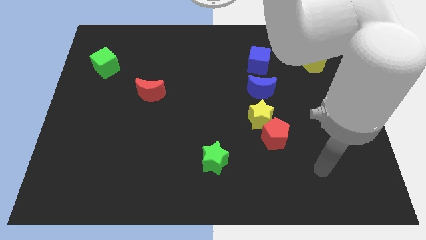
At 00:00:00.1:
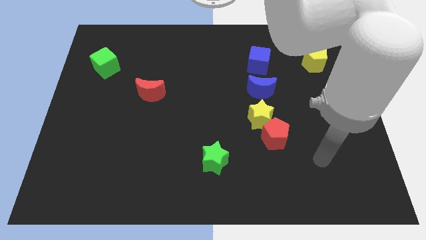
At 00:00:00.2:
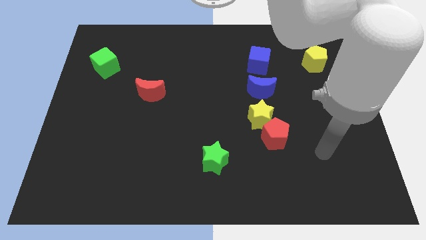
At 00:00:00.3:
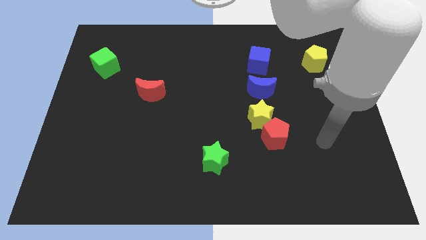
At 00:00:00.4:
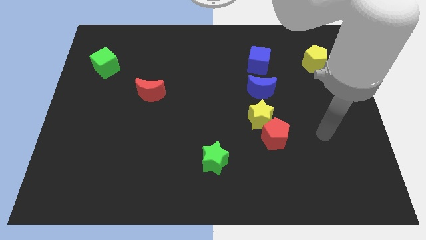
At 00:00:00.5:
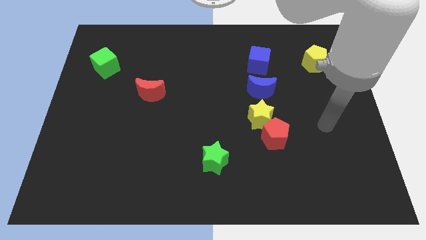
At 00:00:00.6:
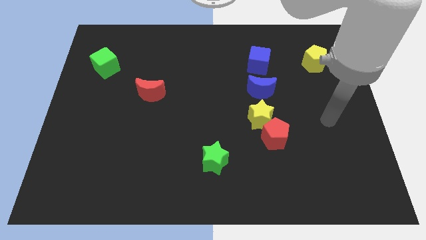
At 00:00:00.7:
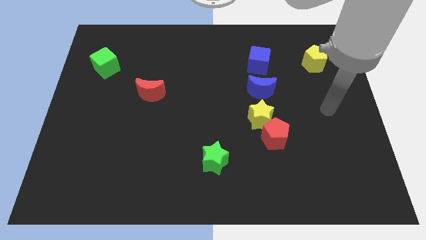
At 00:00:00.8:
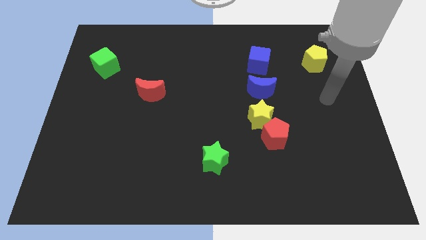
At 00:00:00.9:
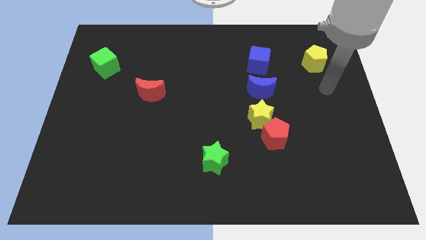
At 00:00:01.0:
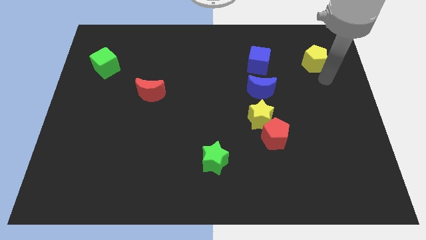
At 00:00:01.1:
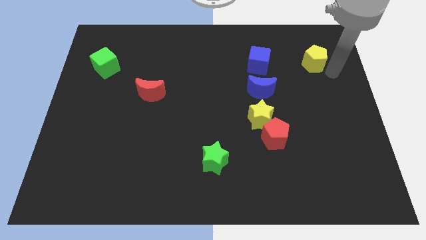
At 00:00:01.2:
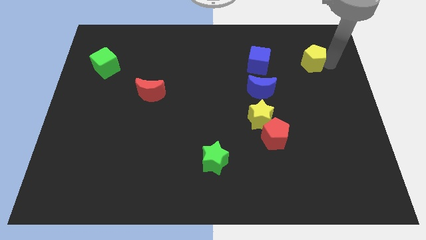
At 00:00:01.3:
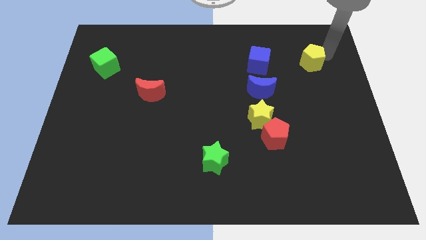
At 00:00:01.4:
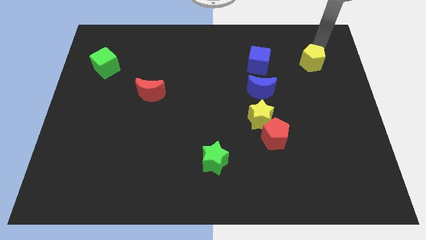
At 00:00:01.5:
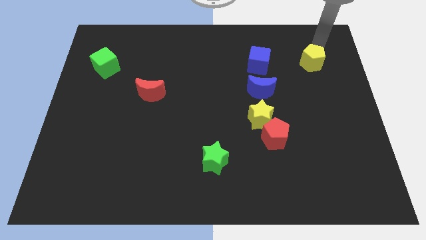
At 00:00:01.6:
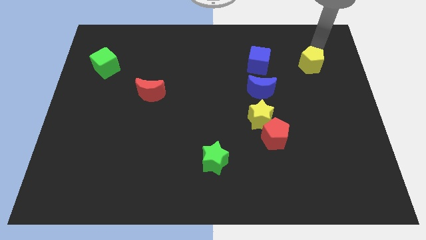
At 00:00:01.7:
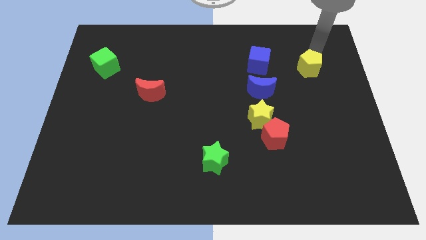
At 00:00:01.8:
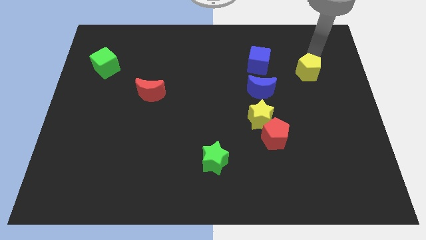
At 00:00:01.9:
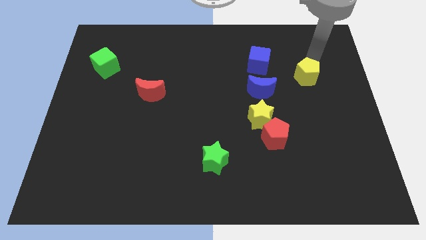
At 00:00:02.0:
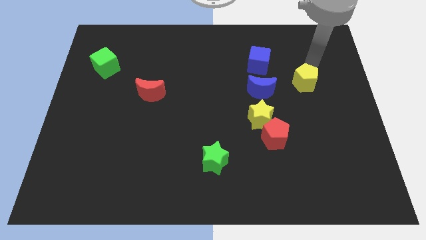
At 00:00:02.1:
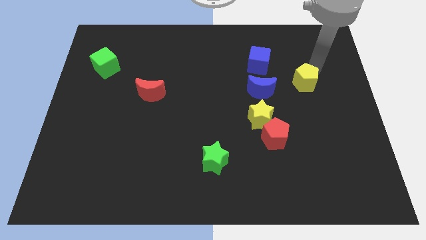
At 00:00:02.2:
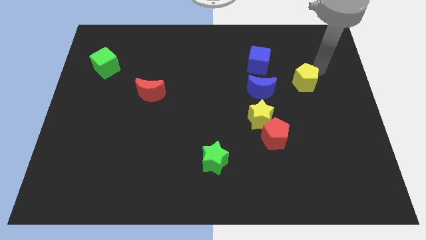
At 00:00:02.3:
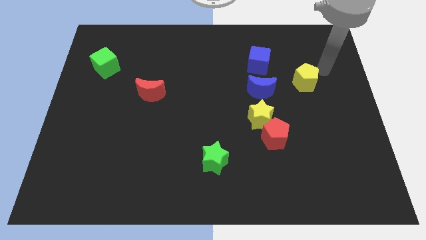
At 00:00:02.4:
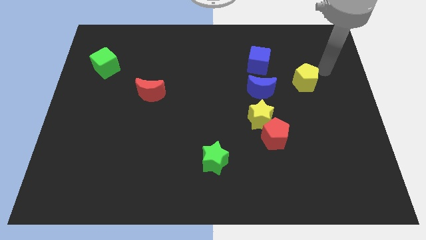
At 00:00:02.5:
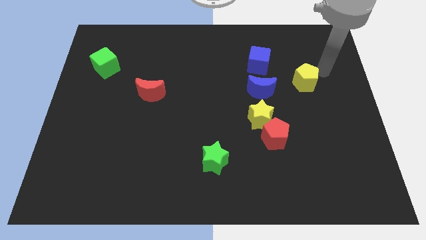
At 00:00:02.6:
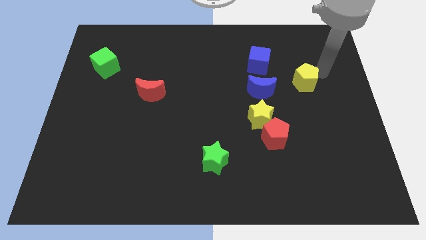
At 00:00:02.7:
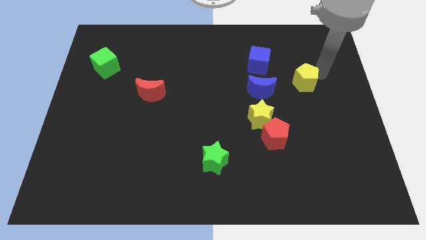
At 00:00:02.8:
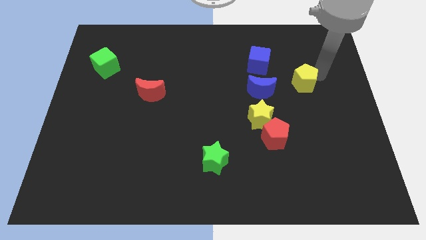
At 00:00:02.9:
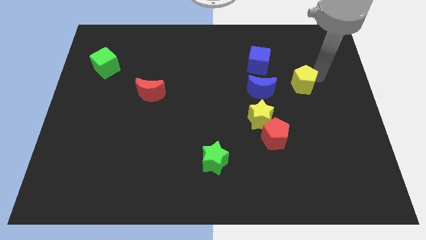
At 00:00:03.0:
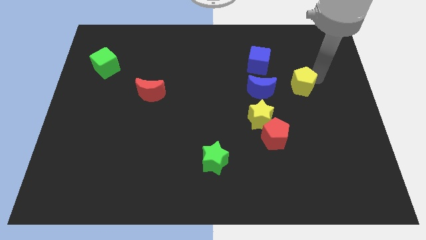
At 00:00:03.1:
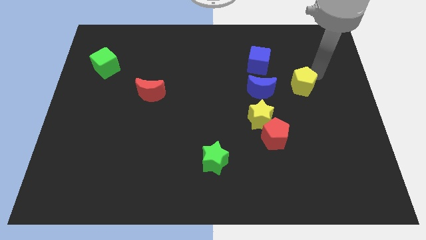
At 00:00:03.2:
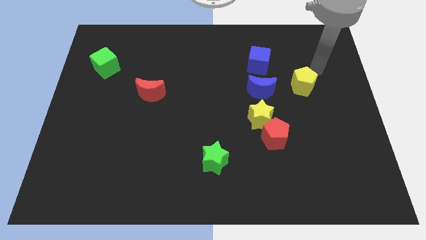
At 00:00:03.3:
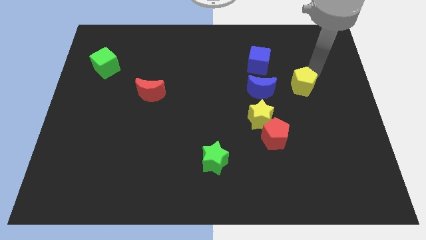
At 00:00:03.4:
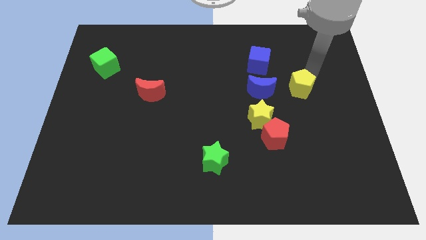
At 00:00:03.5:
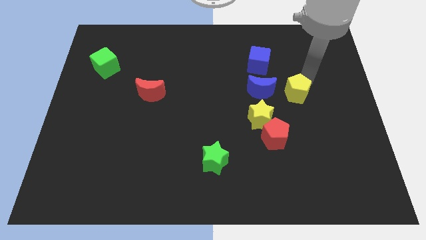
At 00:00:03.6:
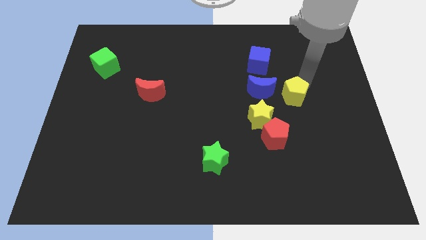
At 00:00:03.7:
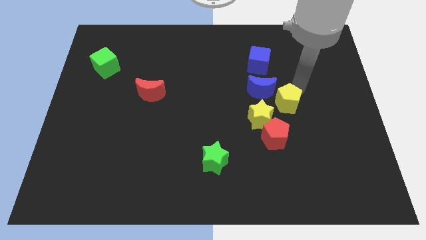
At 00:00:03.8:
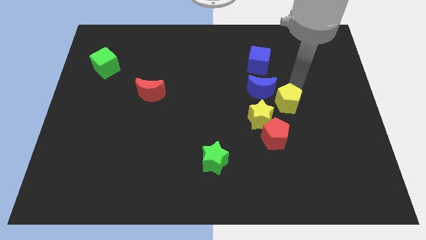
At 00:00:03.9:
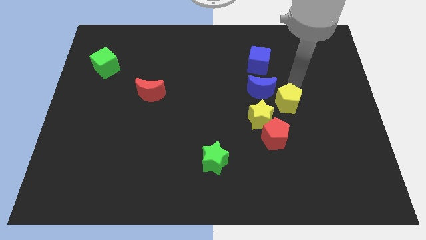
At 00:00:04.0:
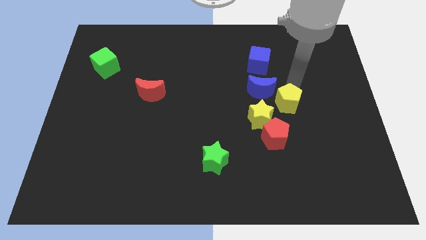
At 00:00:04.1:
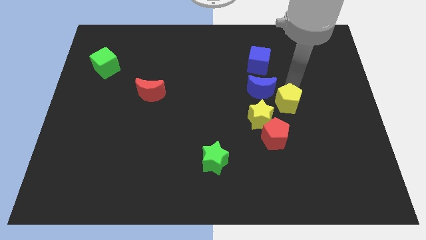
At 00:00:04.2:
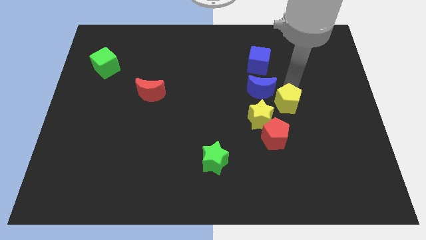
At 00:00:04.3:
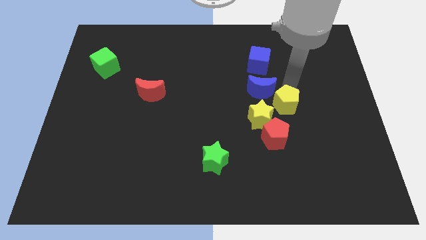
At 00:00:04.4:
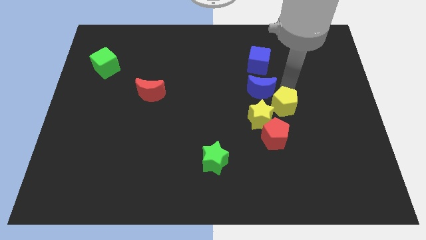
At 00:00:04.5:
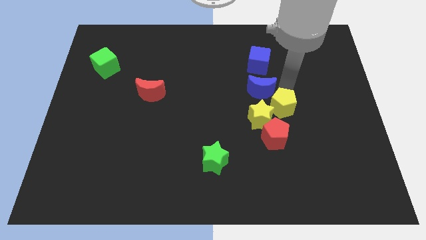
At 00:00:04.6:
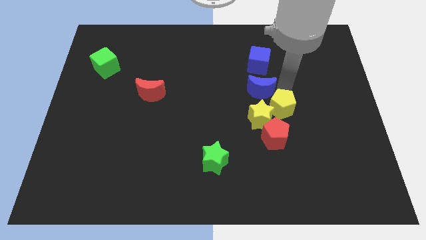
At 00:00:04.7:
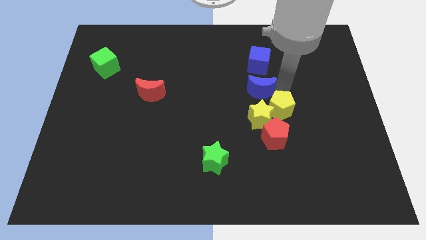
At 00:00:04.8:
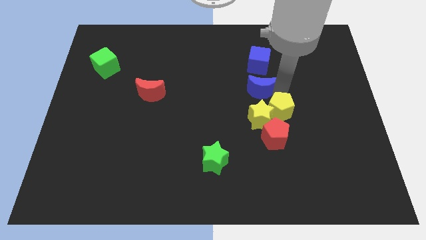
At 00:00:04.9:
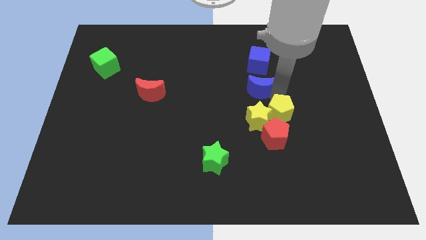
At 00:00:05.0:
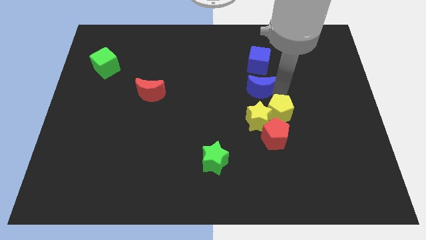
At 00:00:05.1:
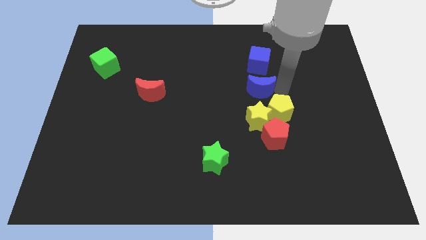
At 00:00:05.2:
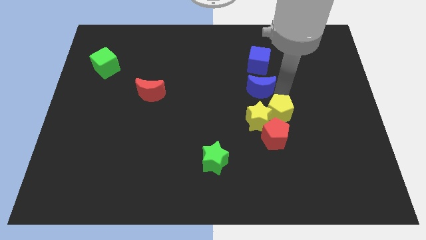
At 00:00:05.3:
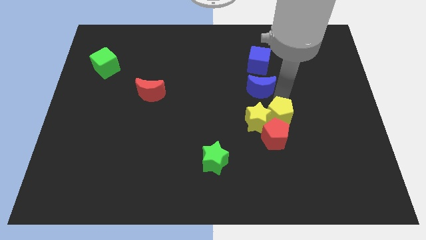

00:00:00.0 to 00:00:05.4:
push the yellow pentagon towards the red pentagon

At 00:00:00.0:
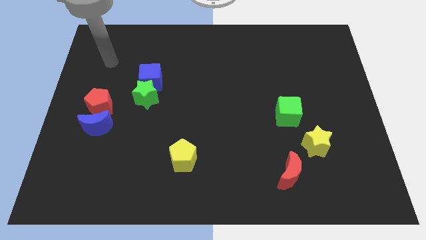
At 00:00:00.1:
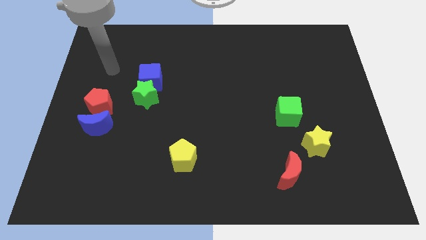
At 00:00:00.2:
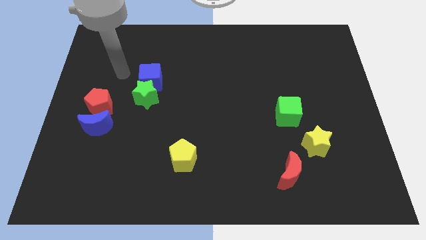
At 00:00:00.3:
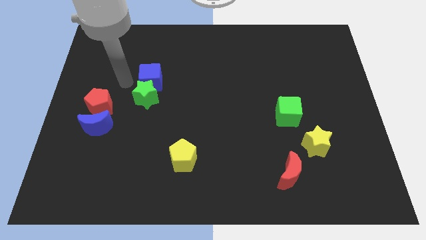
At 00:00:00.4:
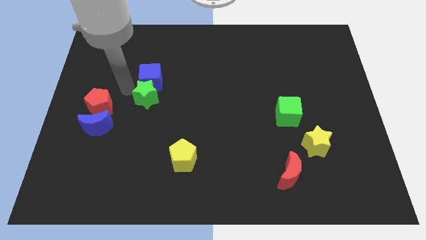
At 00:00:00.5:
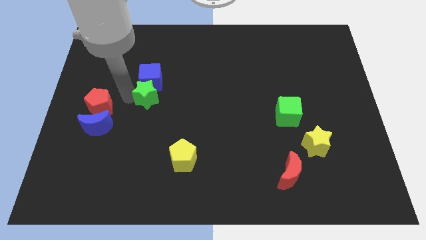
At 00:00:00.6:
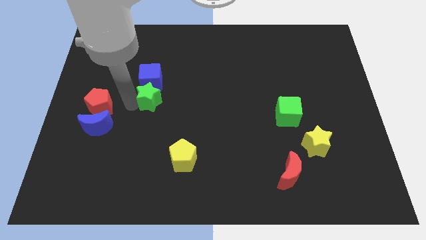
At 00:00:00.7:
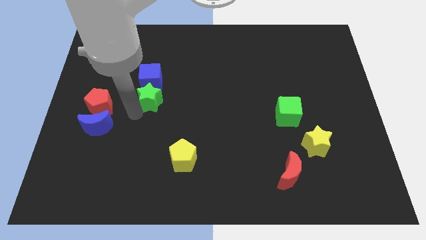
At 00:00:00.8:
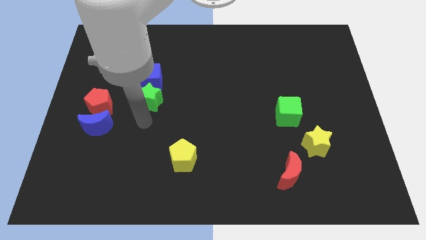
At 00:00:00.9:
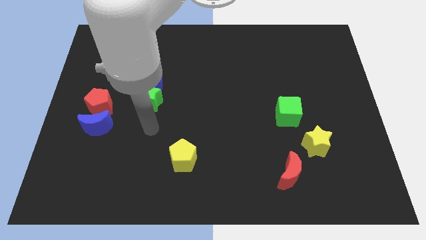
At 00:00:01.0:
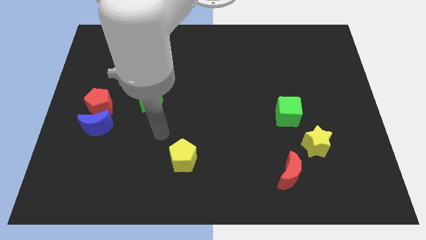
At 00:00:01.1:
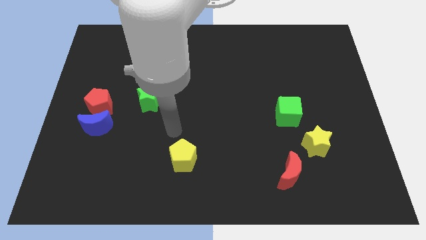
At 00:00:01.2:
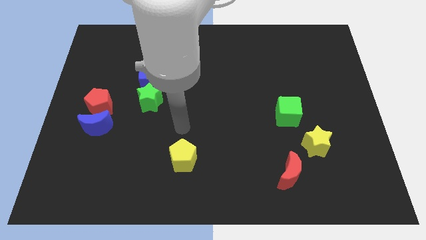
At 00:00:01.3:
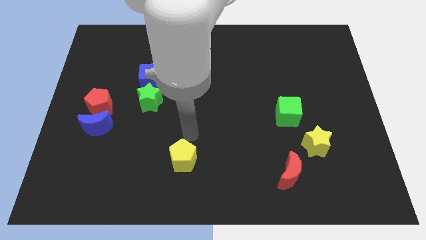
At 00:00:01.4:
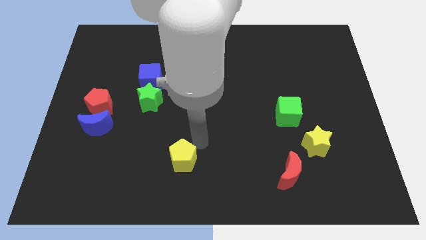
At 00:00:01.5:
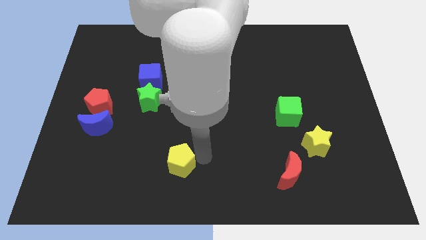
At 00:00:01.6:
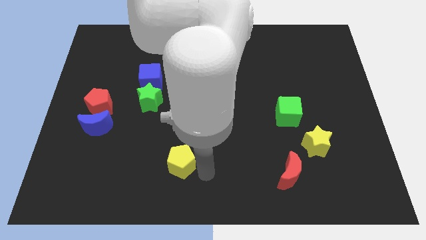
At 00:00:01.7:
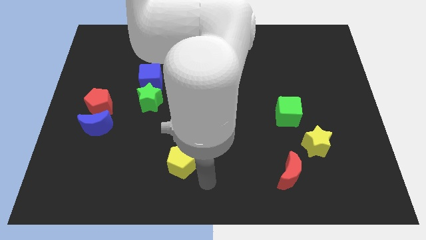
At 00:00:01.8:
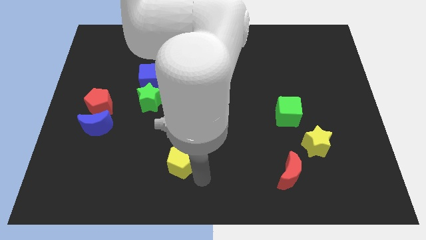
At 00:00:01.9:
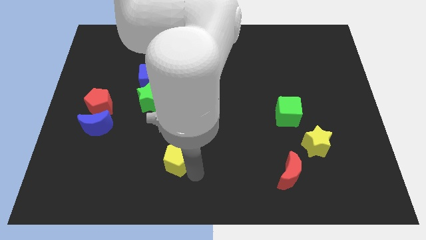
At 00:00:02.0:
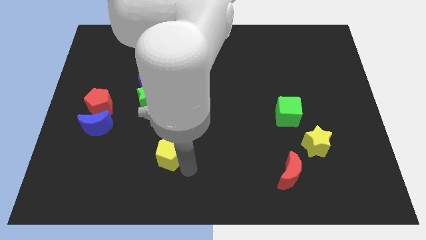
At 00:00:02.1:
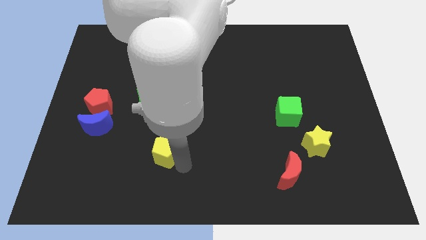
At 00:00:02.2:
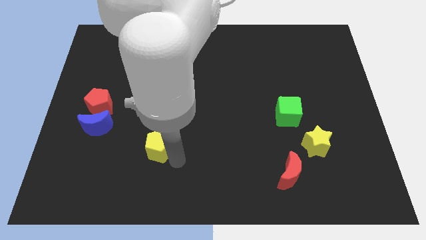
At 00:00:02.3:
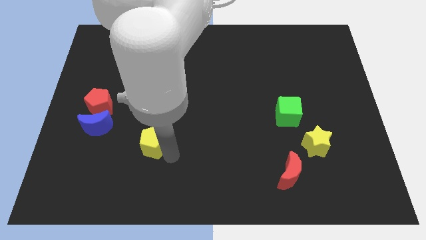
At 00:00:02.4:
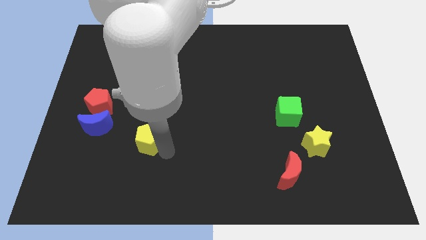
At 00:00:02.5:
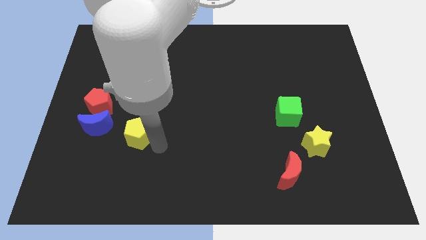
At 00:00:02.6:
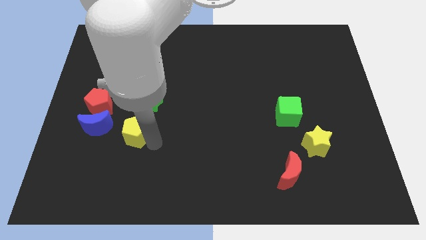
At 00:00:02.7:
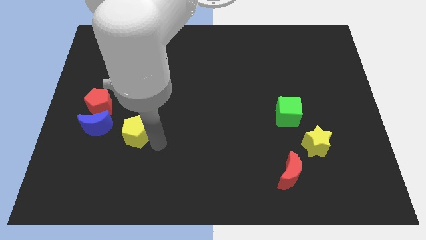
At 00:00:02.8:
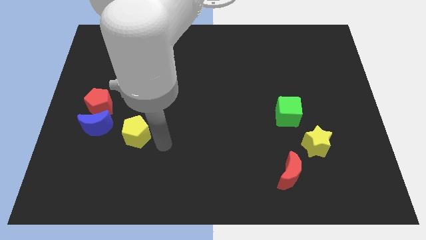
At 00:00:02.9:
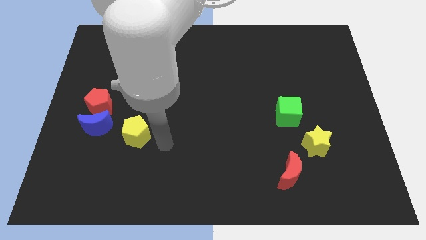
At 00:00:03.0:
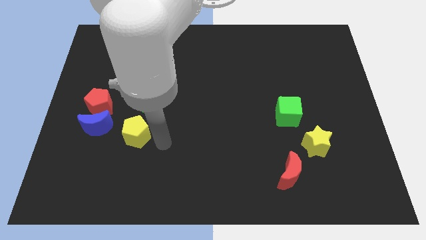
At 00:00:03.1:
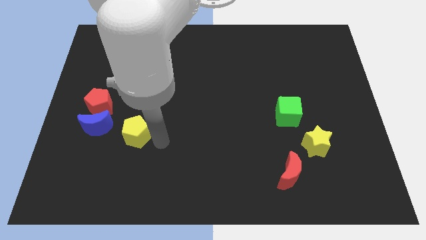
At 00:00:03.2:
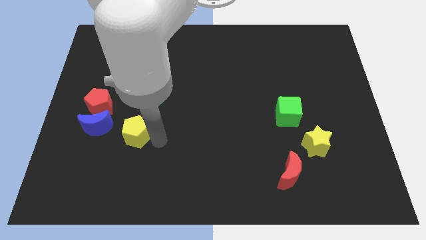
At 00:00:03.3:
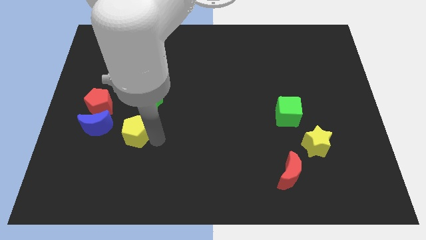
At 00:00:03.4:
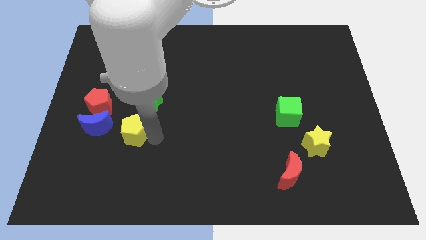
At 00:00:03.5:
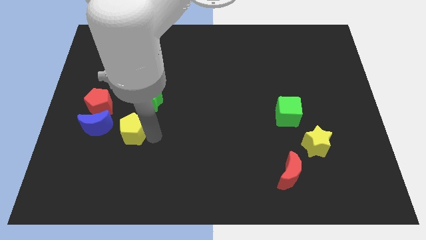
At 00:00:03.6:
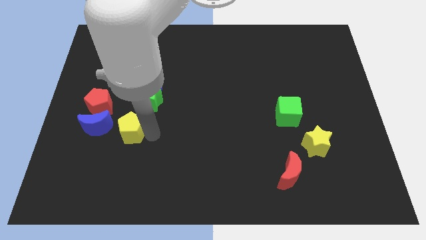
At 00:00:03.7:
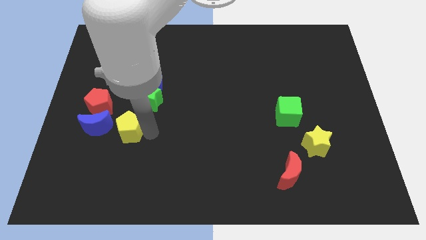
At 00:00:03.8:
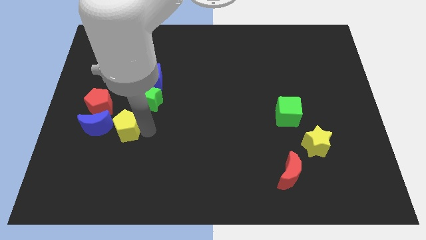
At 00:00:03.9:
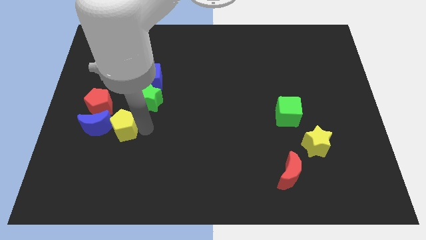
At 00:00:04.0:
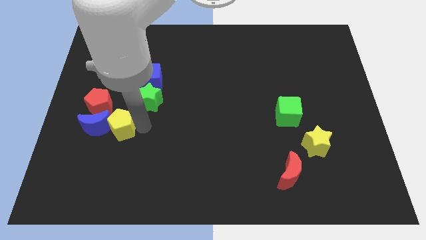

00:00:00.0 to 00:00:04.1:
push the yellow pentagon towards the blue moon
